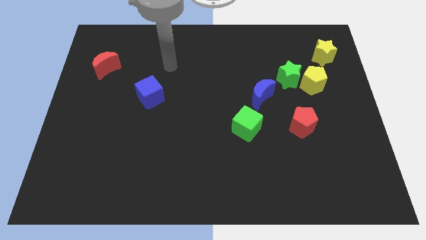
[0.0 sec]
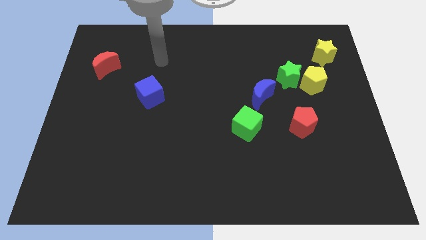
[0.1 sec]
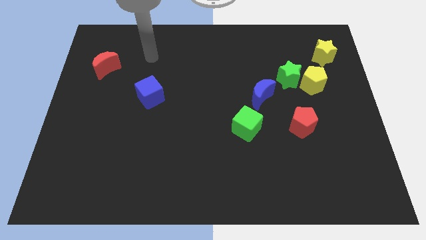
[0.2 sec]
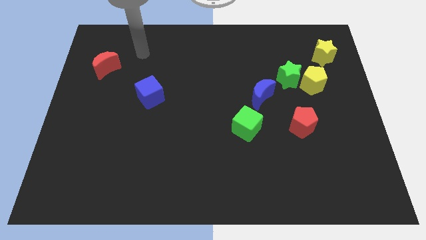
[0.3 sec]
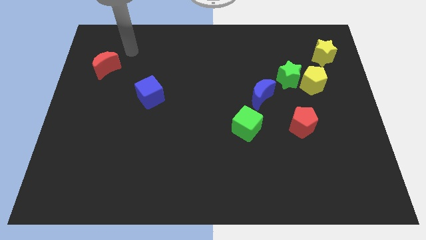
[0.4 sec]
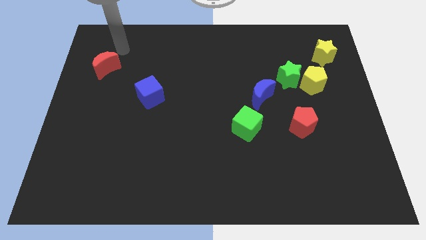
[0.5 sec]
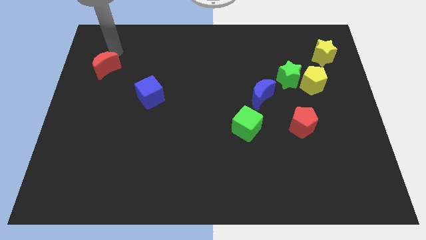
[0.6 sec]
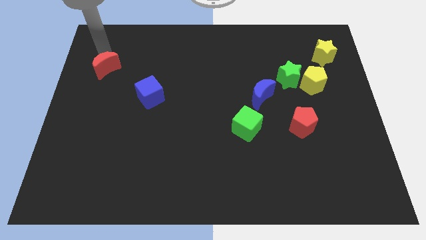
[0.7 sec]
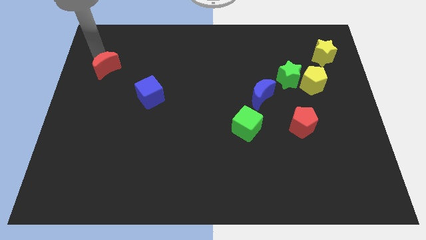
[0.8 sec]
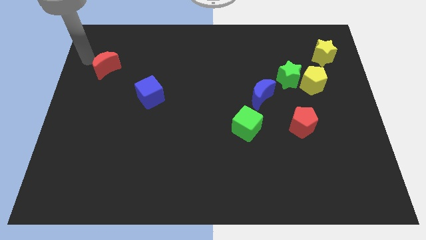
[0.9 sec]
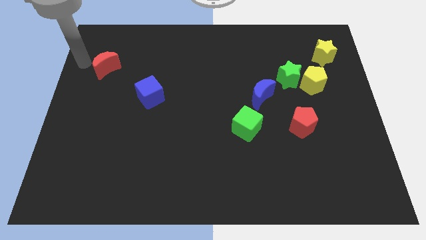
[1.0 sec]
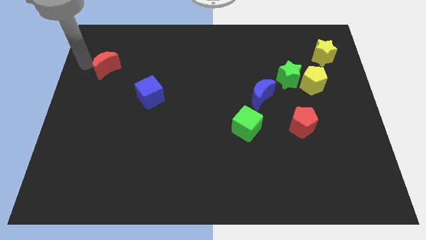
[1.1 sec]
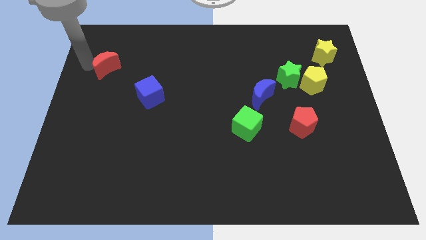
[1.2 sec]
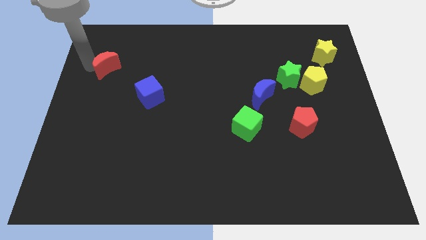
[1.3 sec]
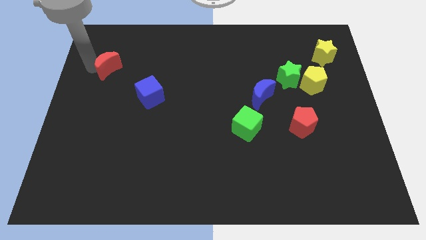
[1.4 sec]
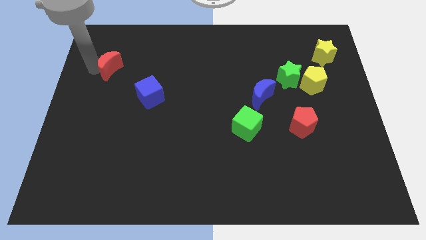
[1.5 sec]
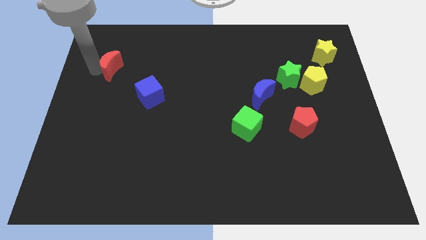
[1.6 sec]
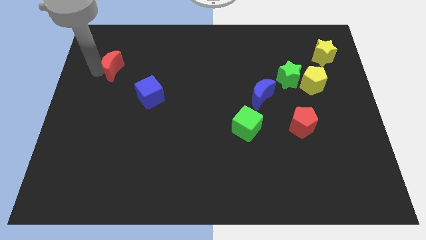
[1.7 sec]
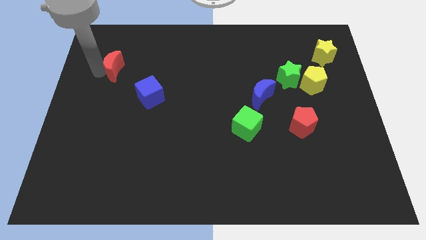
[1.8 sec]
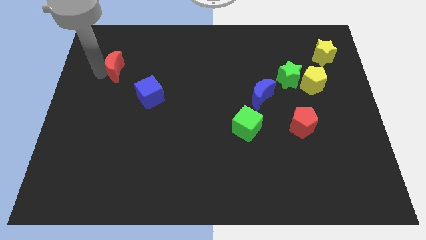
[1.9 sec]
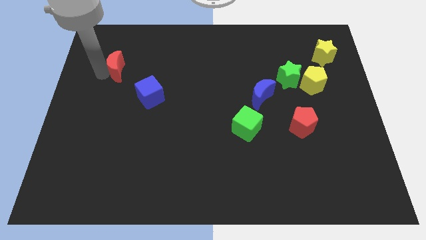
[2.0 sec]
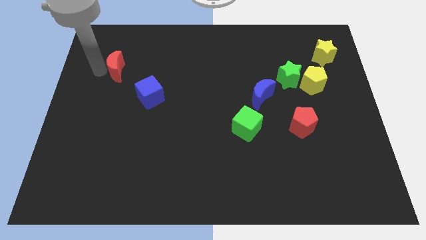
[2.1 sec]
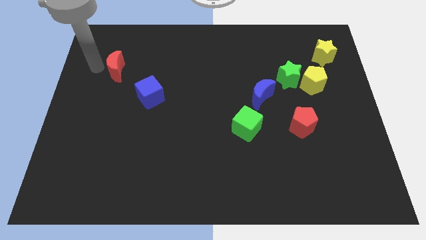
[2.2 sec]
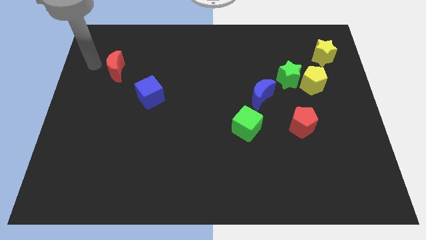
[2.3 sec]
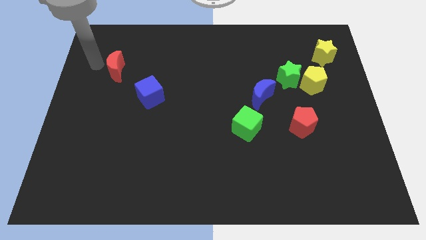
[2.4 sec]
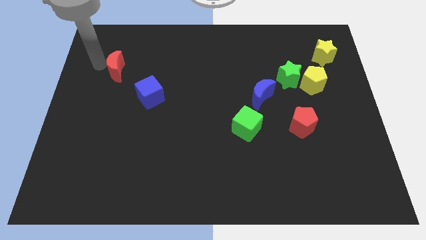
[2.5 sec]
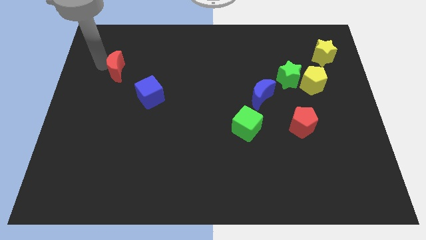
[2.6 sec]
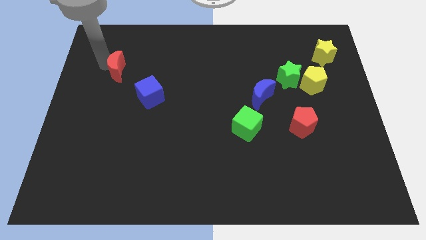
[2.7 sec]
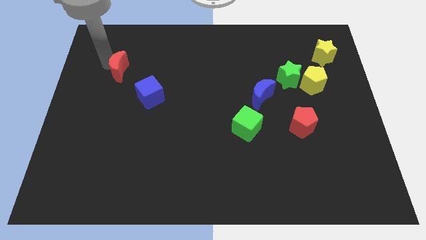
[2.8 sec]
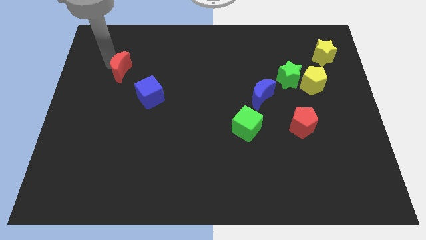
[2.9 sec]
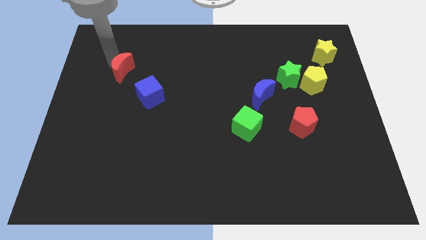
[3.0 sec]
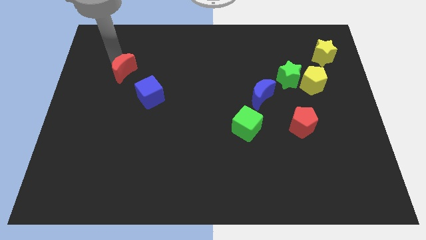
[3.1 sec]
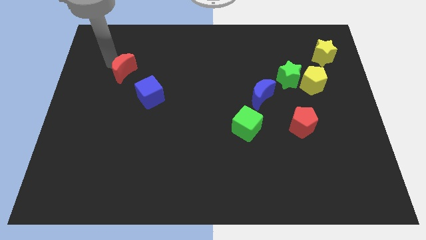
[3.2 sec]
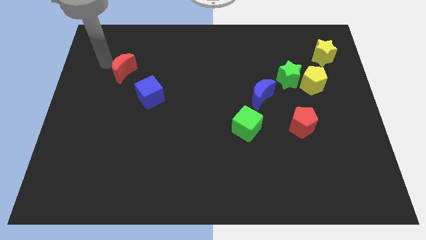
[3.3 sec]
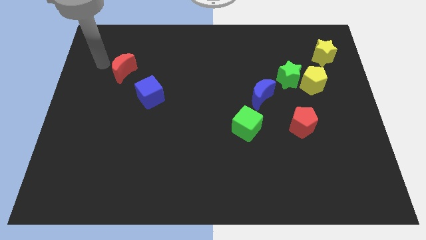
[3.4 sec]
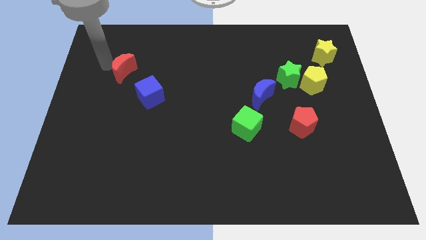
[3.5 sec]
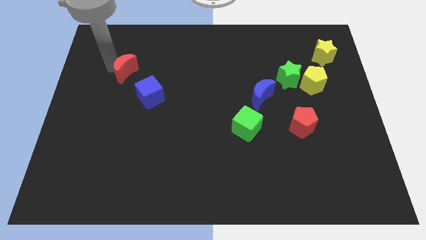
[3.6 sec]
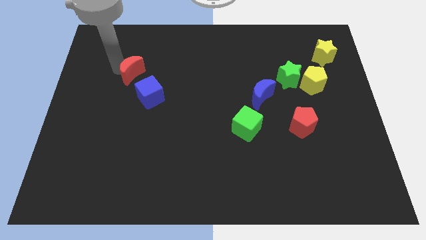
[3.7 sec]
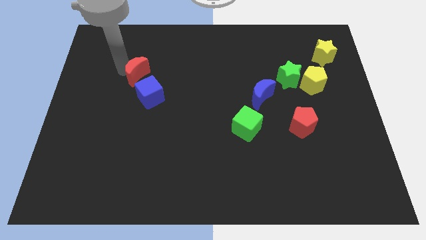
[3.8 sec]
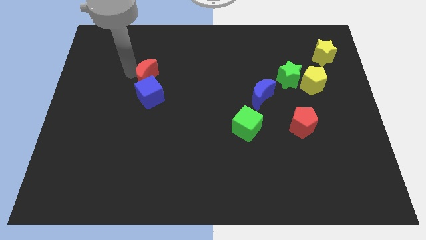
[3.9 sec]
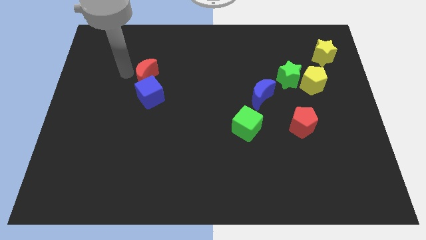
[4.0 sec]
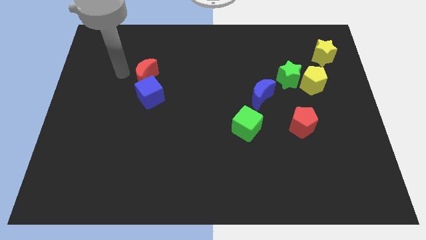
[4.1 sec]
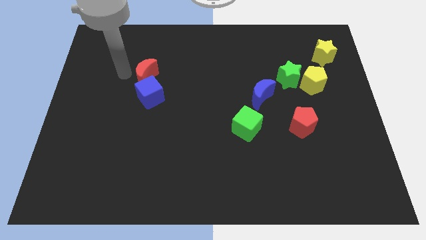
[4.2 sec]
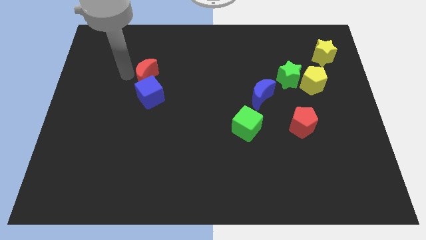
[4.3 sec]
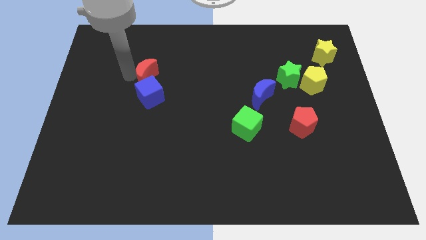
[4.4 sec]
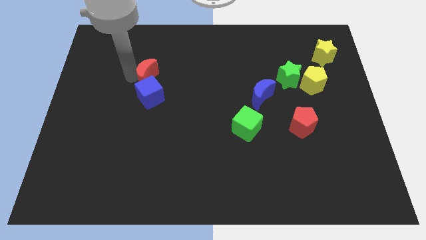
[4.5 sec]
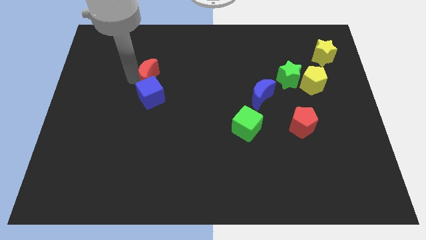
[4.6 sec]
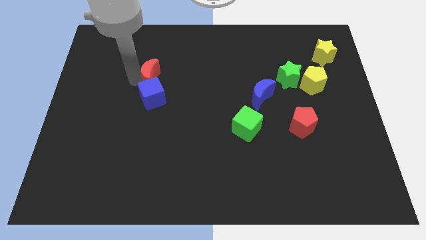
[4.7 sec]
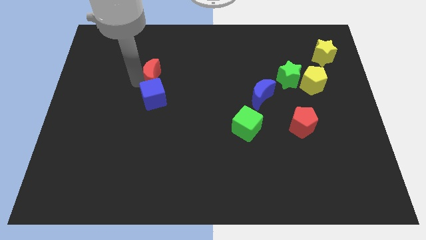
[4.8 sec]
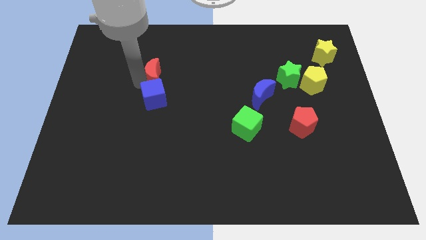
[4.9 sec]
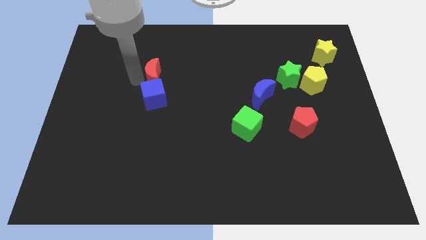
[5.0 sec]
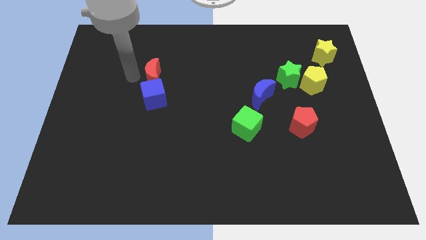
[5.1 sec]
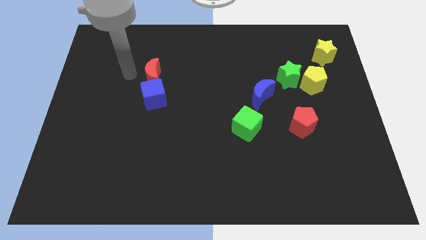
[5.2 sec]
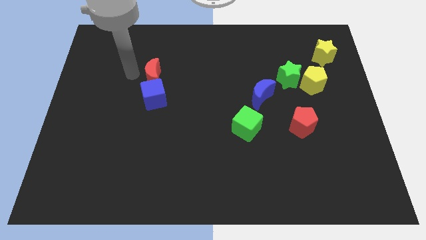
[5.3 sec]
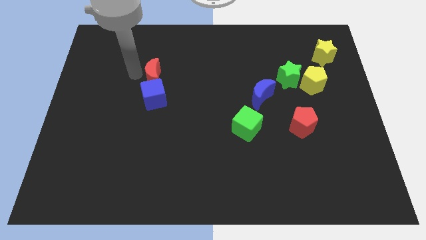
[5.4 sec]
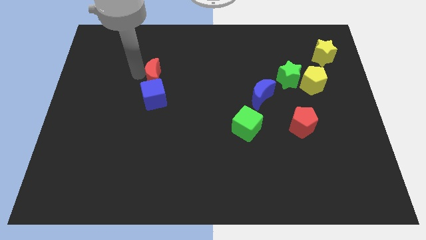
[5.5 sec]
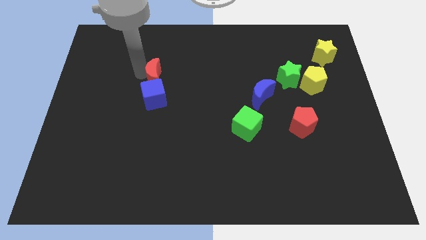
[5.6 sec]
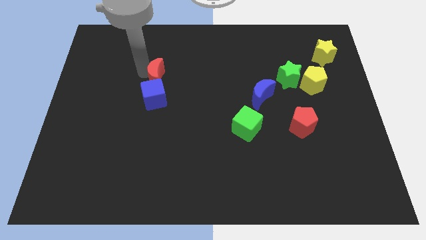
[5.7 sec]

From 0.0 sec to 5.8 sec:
move the red moon to the top right side of the blue cube

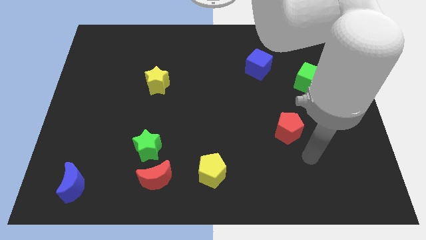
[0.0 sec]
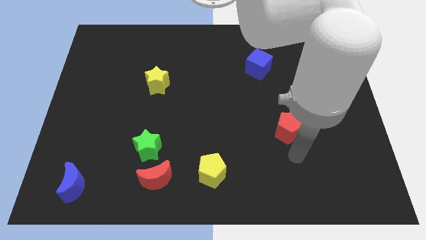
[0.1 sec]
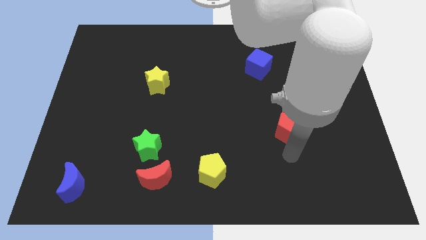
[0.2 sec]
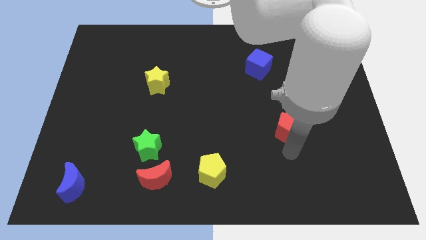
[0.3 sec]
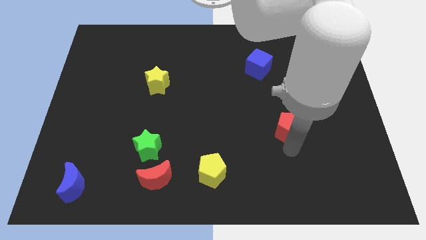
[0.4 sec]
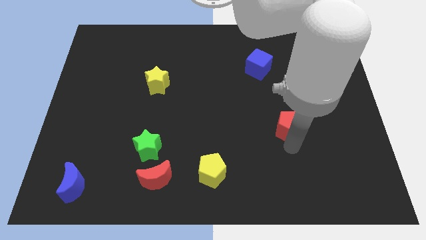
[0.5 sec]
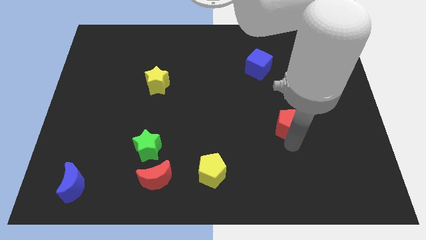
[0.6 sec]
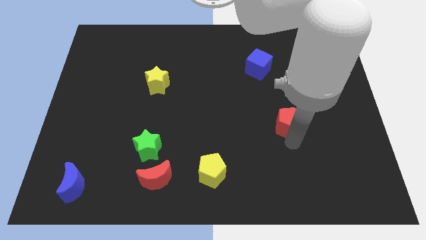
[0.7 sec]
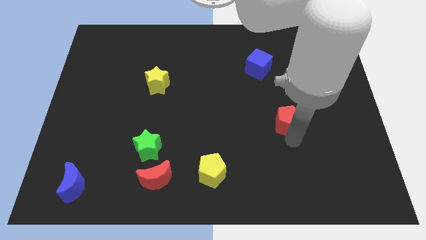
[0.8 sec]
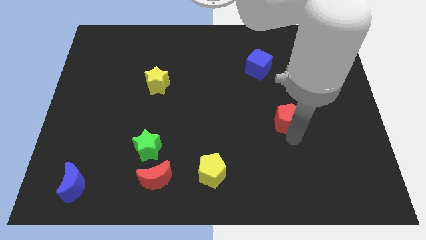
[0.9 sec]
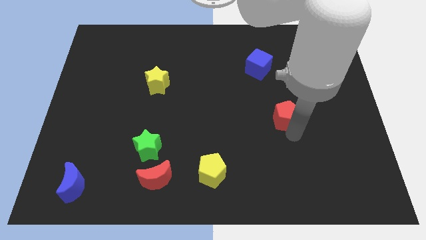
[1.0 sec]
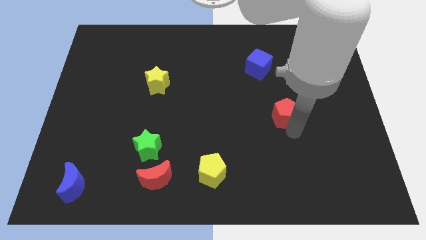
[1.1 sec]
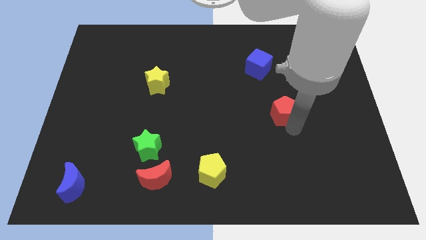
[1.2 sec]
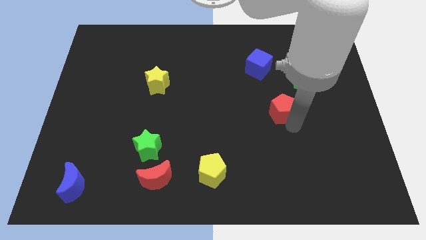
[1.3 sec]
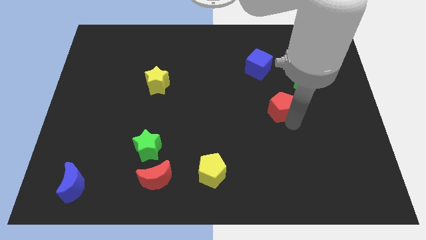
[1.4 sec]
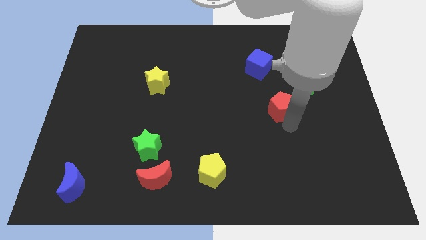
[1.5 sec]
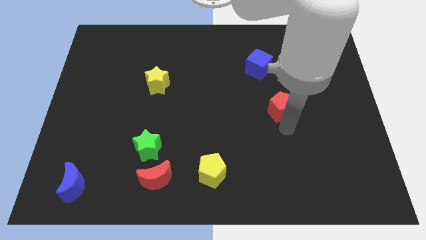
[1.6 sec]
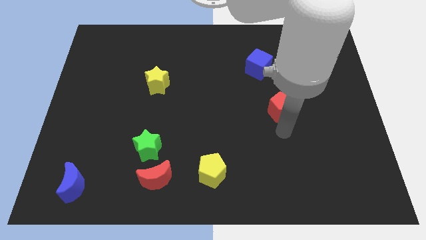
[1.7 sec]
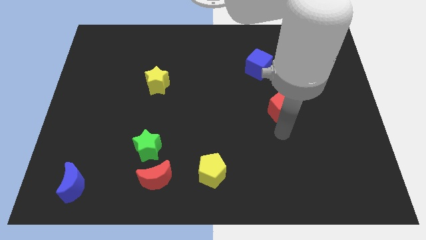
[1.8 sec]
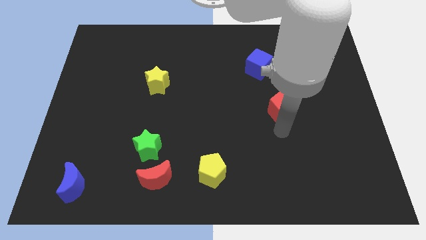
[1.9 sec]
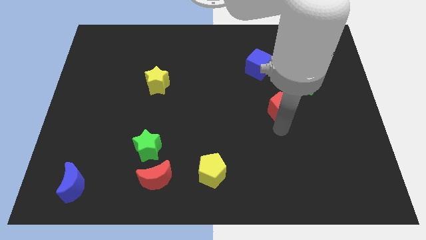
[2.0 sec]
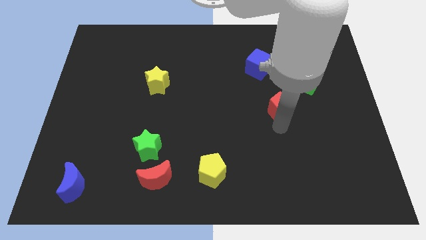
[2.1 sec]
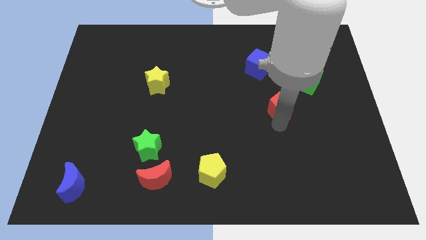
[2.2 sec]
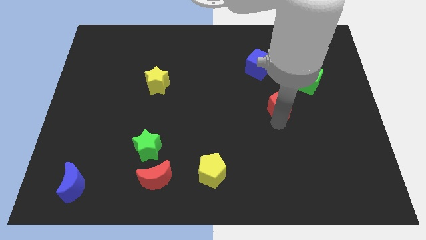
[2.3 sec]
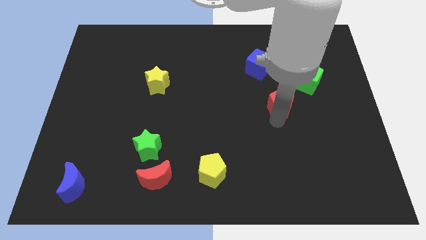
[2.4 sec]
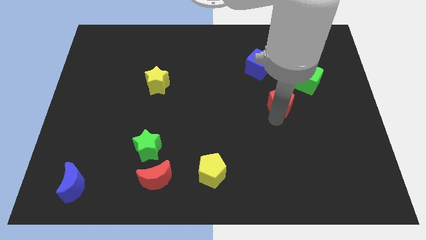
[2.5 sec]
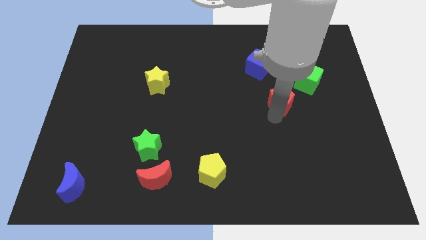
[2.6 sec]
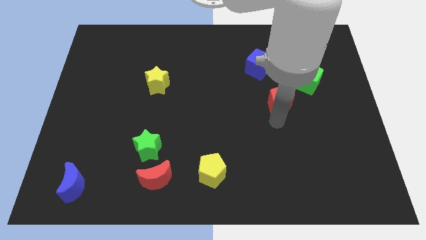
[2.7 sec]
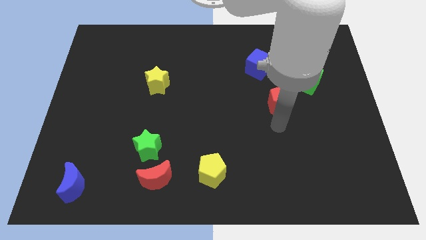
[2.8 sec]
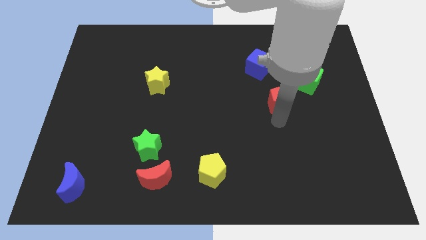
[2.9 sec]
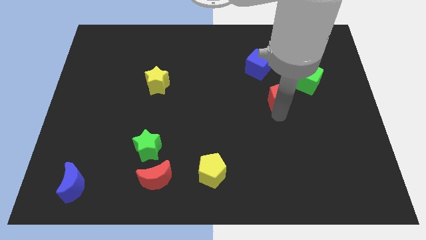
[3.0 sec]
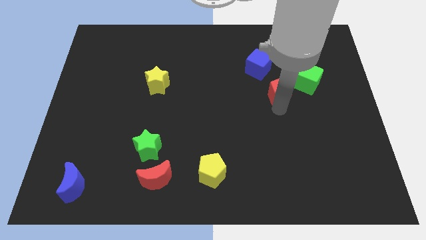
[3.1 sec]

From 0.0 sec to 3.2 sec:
push the red pentagon to the bottom right of the blue cube
